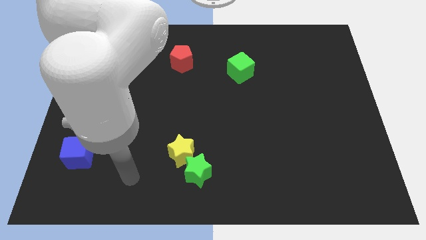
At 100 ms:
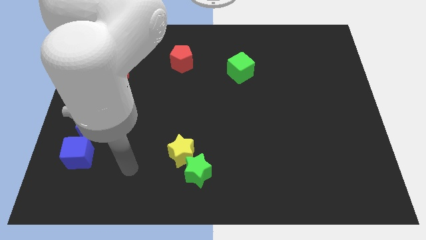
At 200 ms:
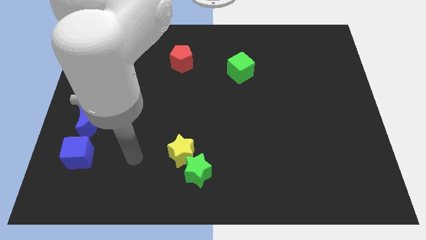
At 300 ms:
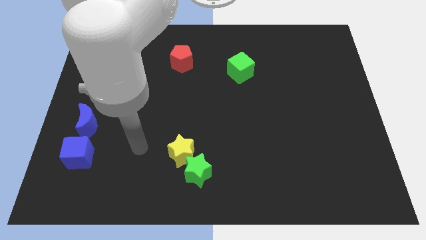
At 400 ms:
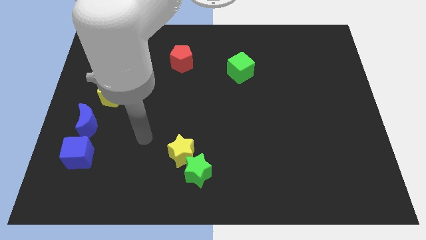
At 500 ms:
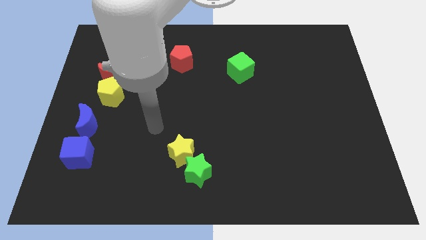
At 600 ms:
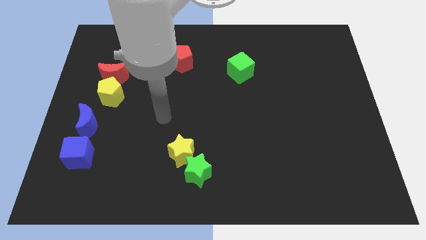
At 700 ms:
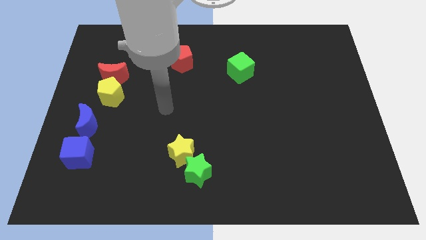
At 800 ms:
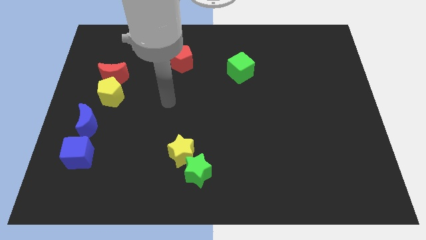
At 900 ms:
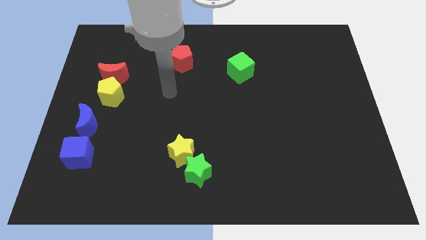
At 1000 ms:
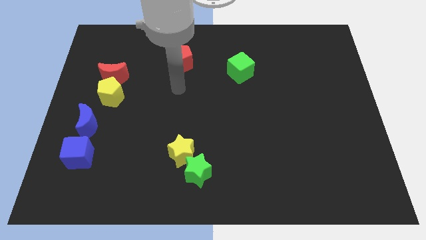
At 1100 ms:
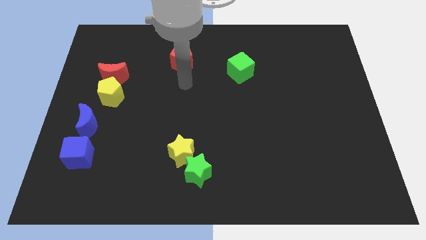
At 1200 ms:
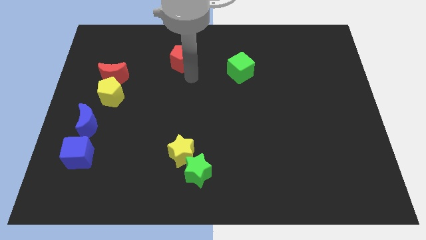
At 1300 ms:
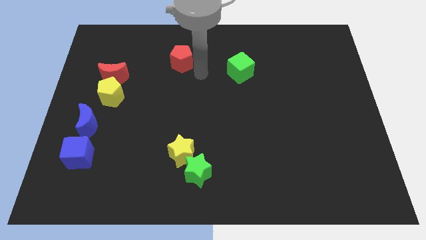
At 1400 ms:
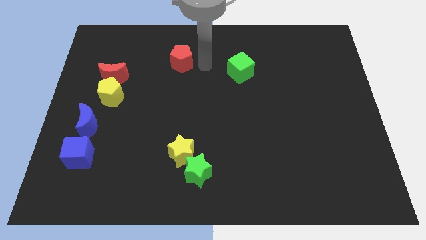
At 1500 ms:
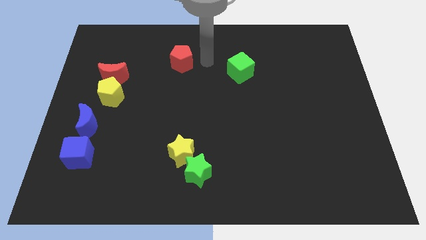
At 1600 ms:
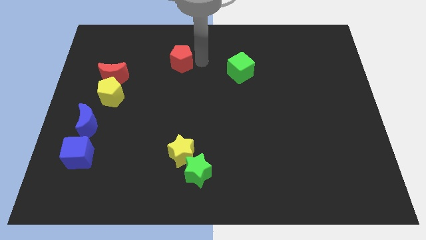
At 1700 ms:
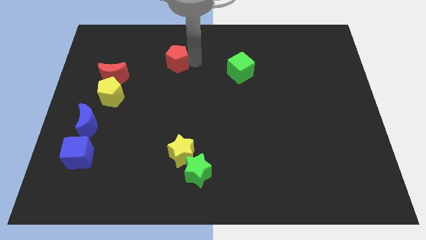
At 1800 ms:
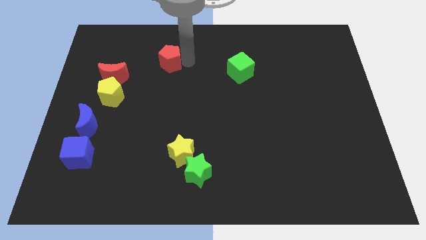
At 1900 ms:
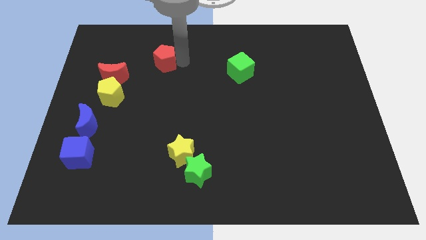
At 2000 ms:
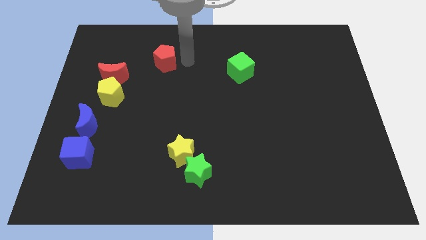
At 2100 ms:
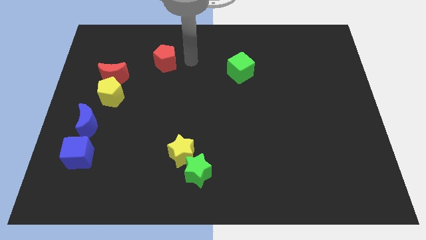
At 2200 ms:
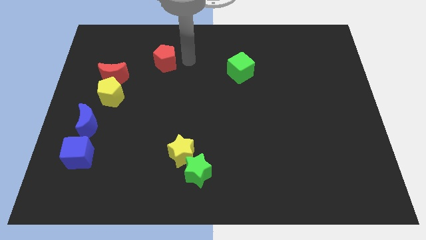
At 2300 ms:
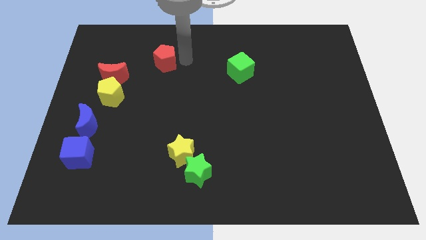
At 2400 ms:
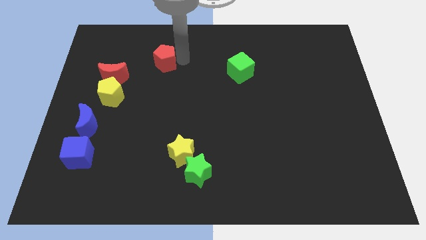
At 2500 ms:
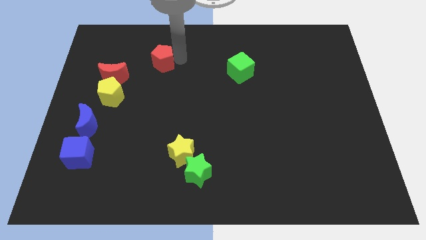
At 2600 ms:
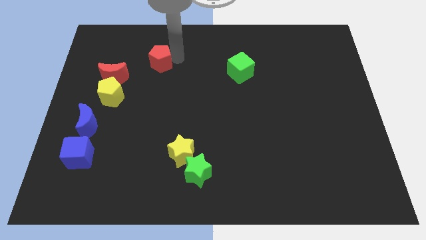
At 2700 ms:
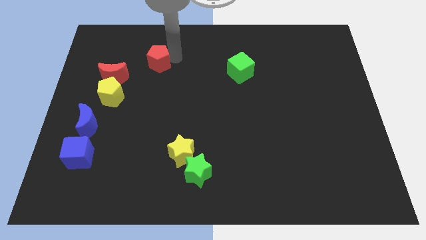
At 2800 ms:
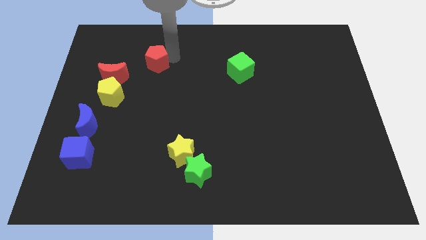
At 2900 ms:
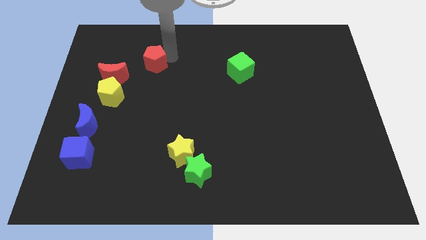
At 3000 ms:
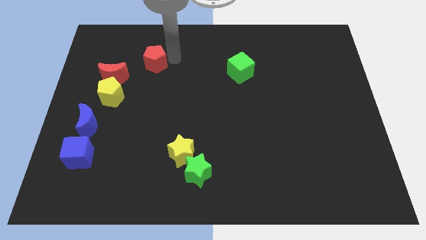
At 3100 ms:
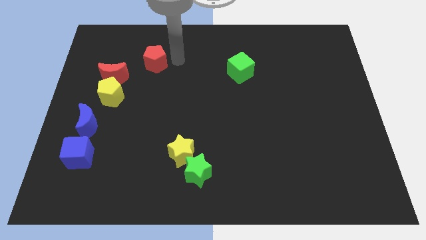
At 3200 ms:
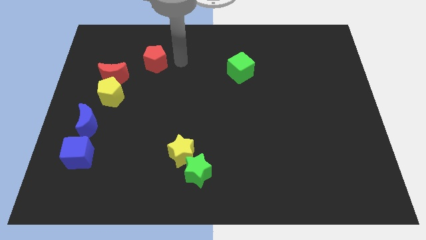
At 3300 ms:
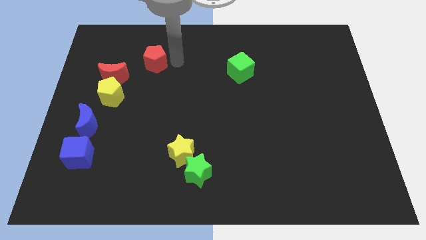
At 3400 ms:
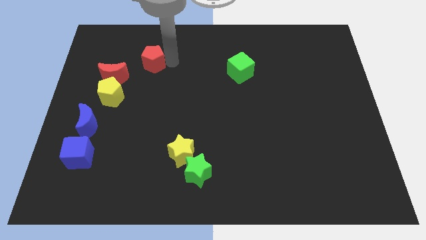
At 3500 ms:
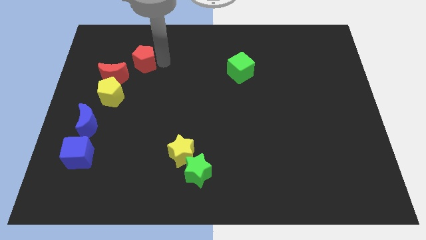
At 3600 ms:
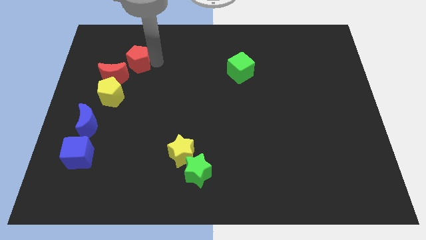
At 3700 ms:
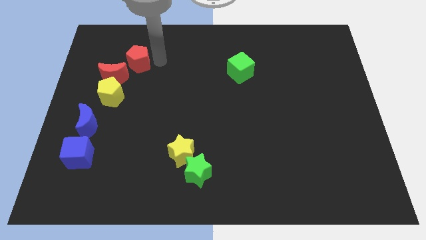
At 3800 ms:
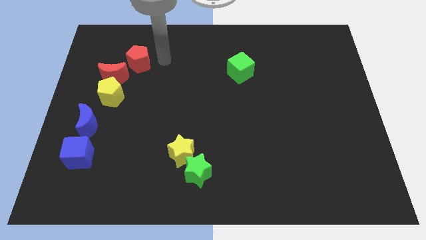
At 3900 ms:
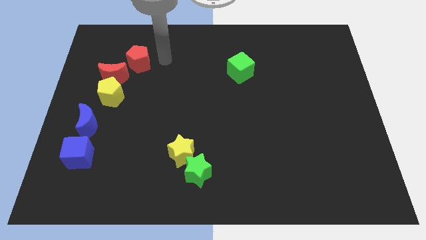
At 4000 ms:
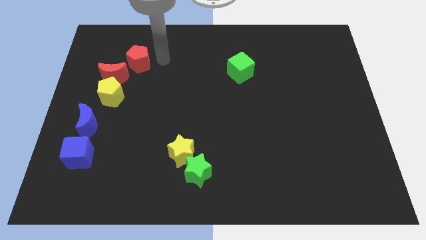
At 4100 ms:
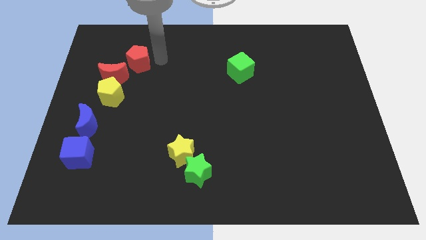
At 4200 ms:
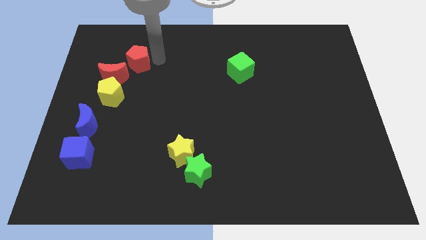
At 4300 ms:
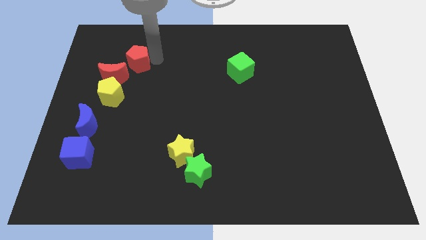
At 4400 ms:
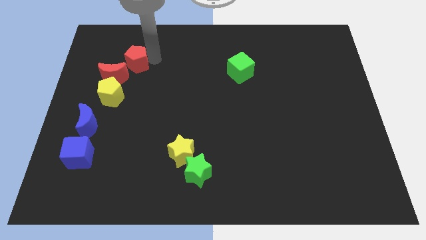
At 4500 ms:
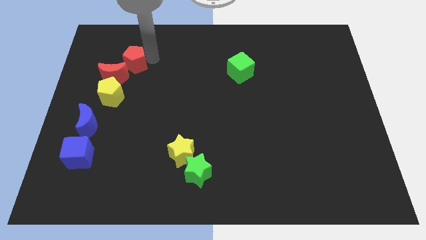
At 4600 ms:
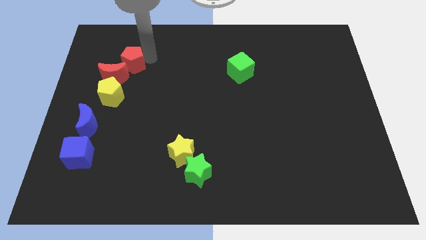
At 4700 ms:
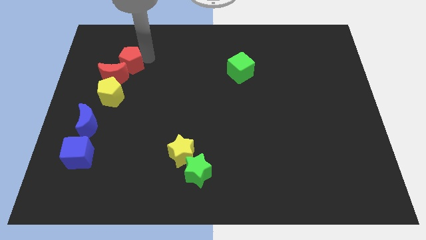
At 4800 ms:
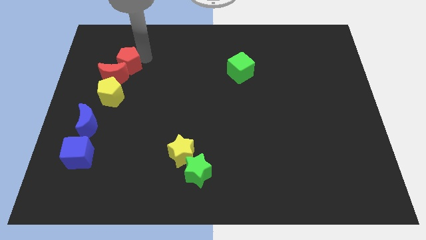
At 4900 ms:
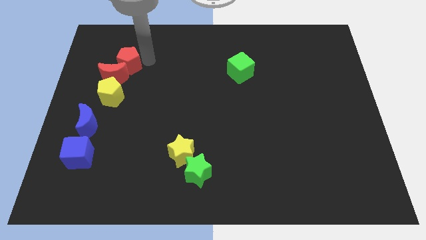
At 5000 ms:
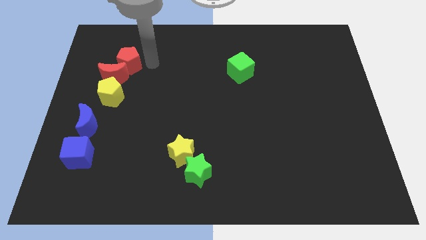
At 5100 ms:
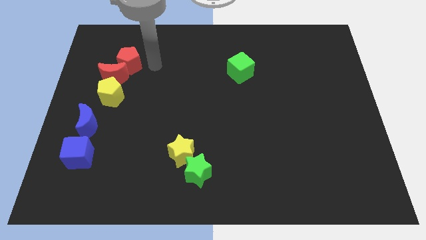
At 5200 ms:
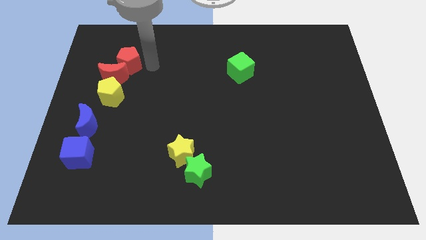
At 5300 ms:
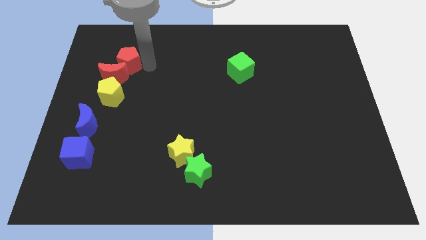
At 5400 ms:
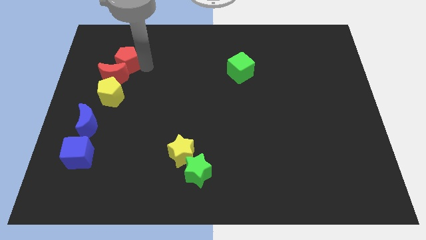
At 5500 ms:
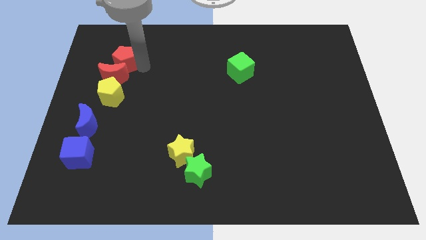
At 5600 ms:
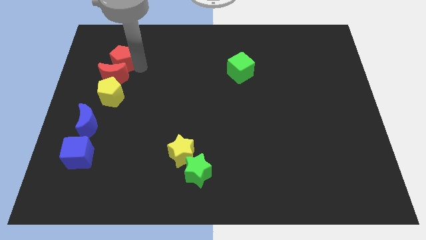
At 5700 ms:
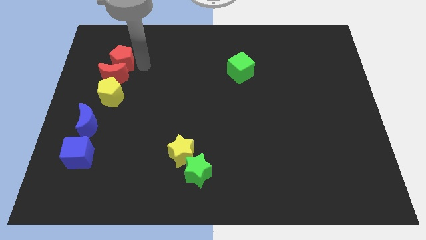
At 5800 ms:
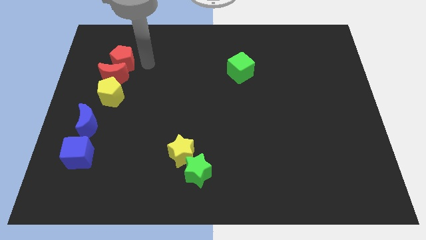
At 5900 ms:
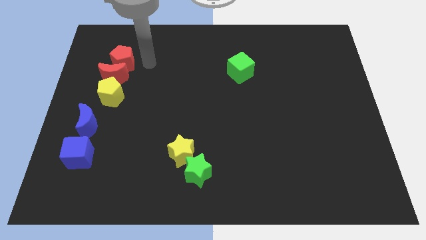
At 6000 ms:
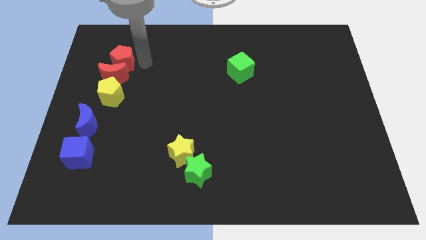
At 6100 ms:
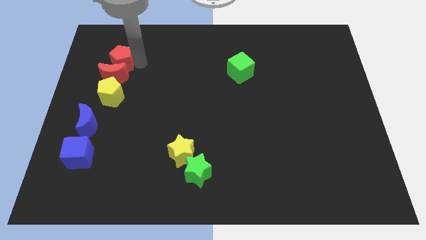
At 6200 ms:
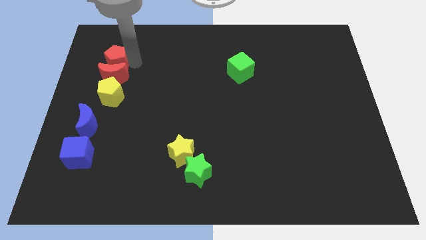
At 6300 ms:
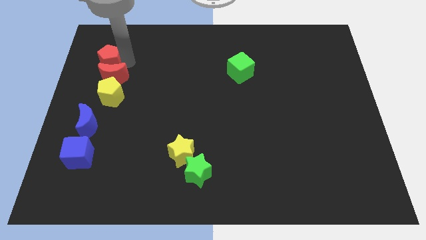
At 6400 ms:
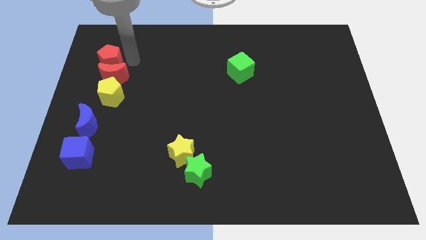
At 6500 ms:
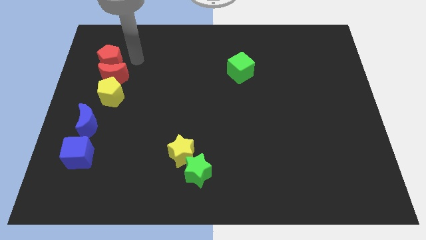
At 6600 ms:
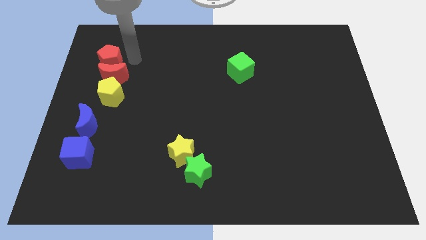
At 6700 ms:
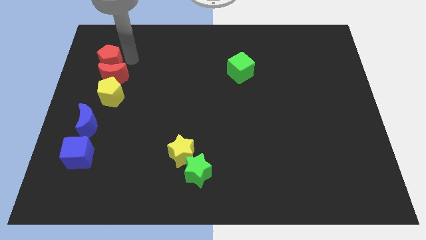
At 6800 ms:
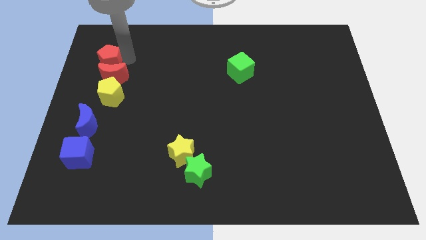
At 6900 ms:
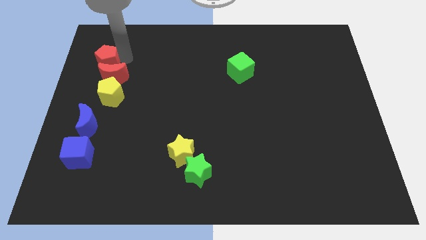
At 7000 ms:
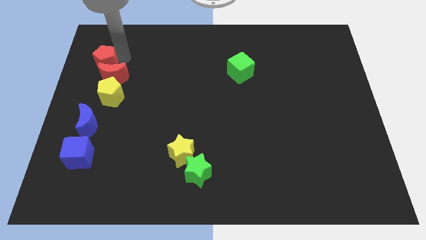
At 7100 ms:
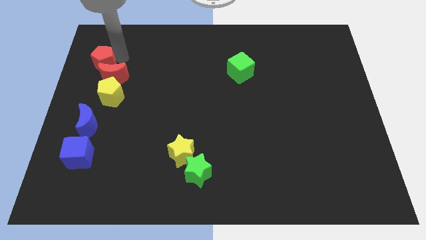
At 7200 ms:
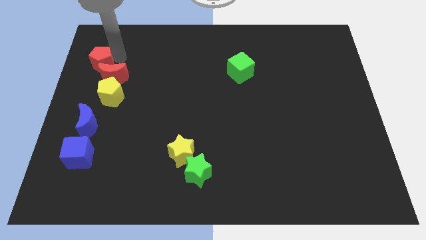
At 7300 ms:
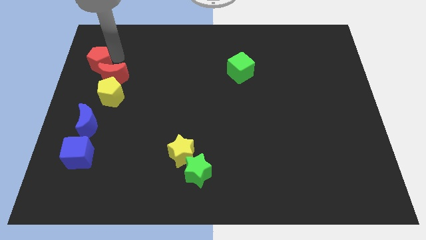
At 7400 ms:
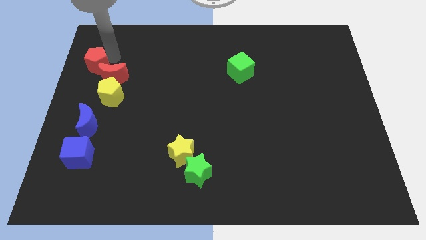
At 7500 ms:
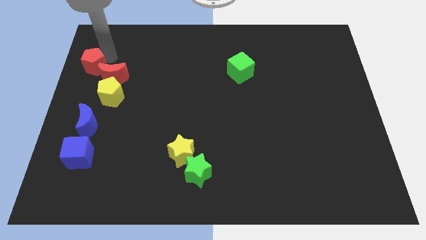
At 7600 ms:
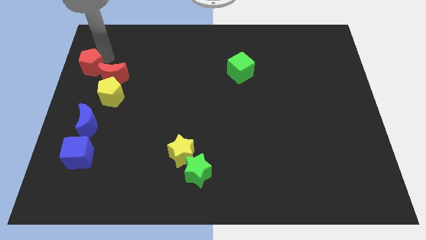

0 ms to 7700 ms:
push the red pentagon to the left side
